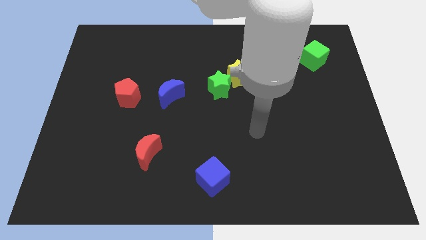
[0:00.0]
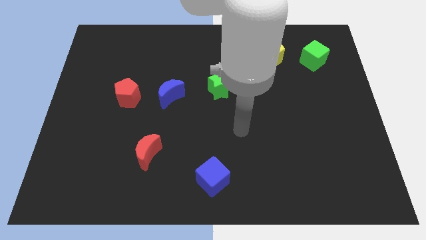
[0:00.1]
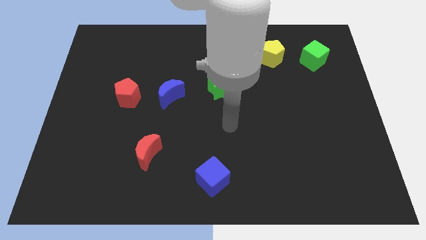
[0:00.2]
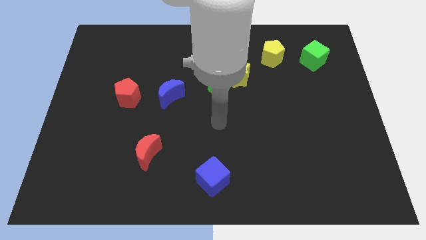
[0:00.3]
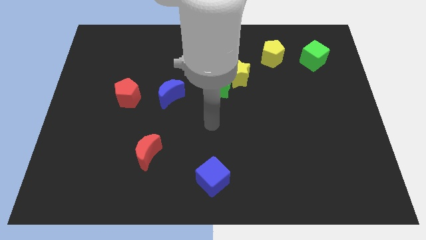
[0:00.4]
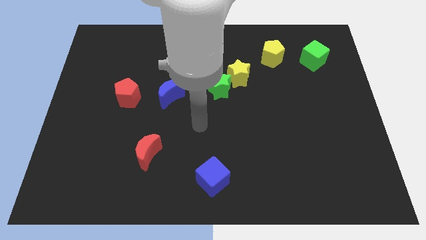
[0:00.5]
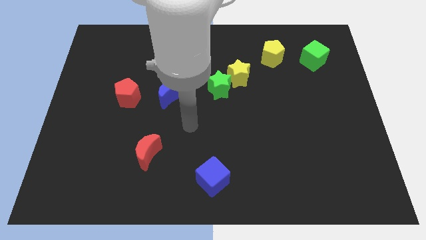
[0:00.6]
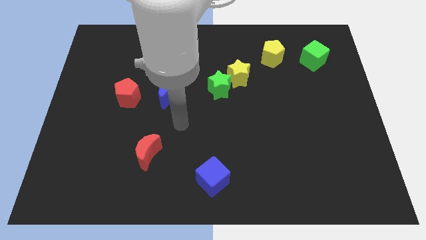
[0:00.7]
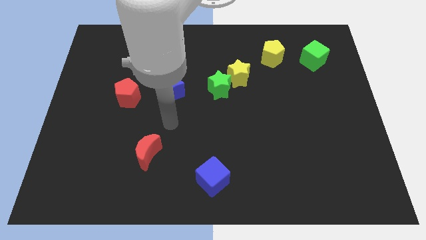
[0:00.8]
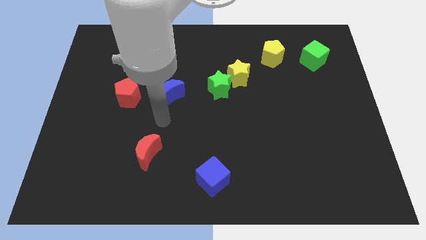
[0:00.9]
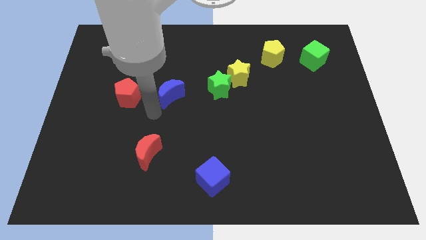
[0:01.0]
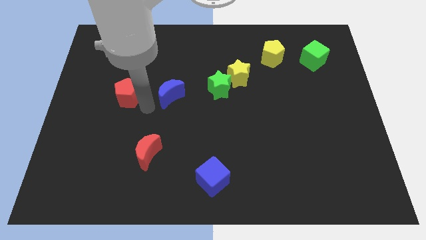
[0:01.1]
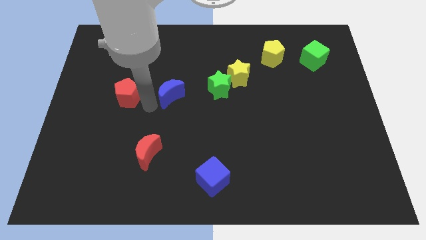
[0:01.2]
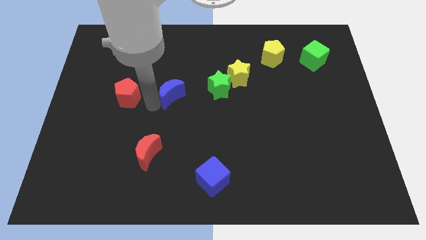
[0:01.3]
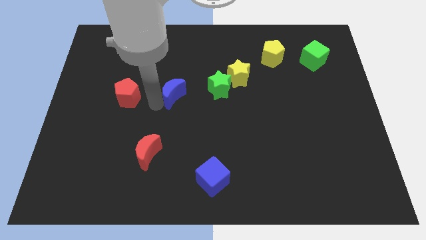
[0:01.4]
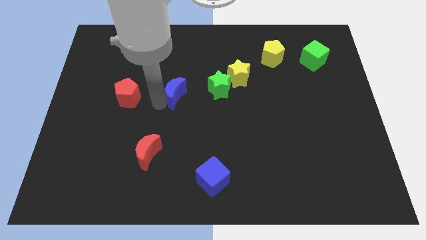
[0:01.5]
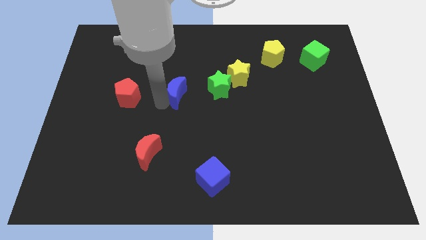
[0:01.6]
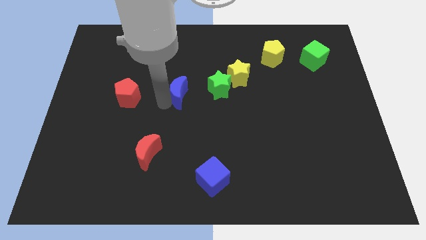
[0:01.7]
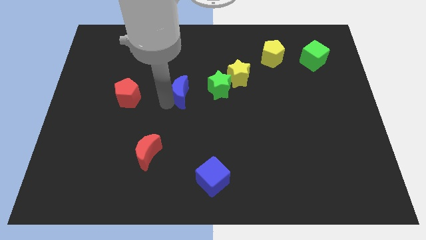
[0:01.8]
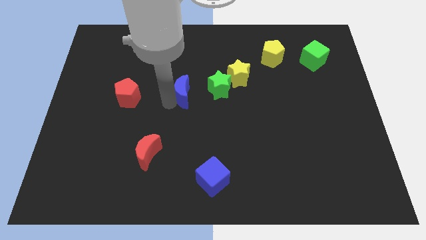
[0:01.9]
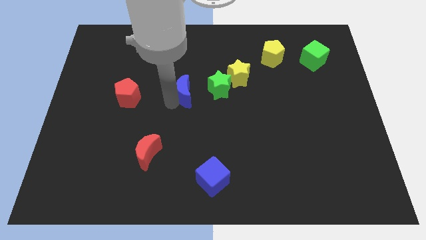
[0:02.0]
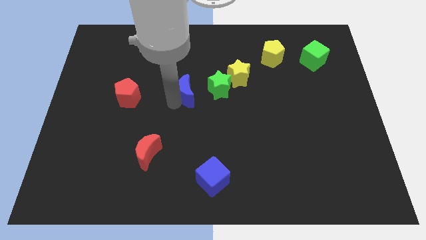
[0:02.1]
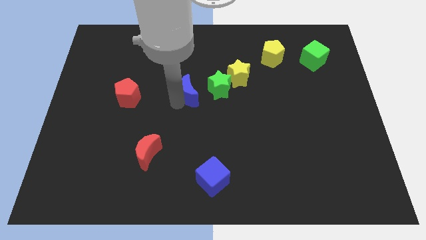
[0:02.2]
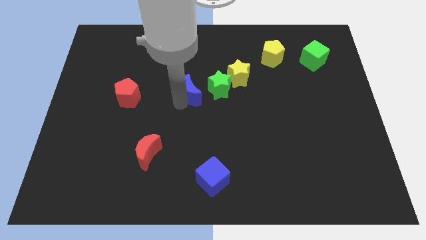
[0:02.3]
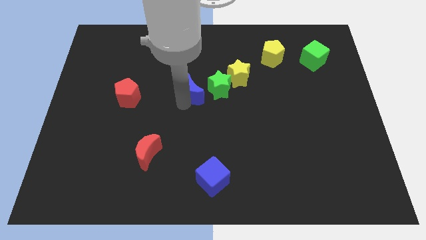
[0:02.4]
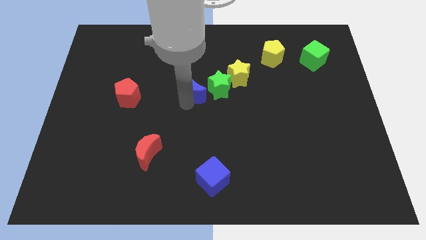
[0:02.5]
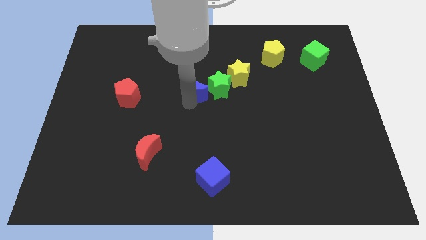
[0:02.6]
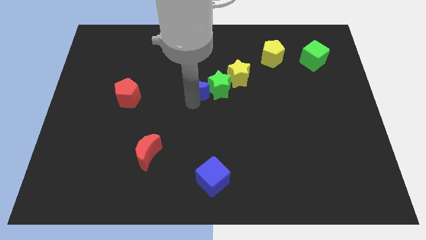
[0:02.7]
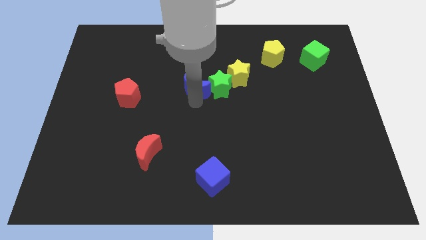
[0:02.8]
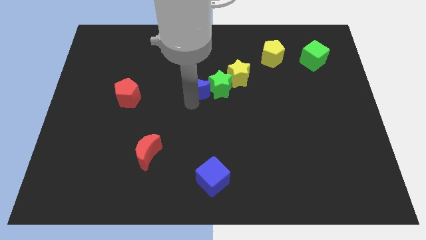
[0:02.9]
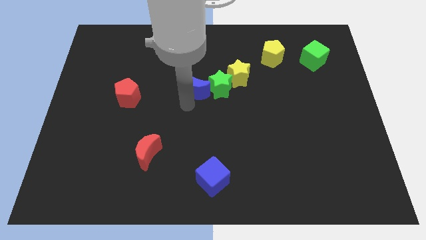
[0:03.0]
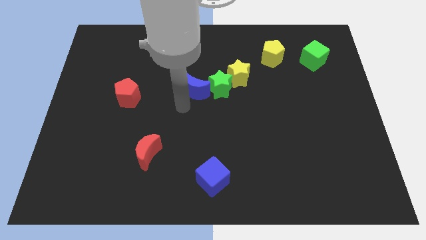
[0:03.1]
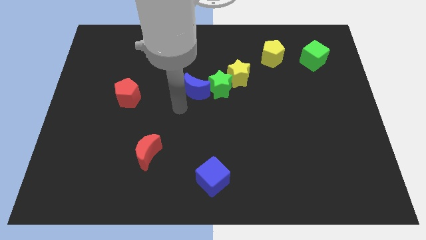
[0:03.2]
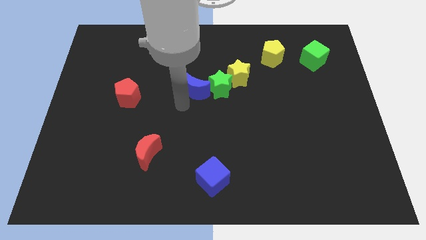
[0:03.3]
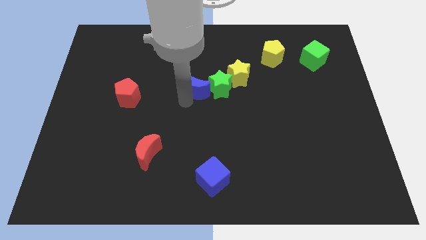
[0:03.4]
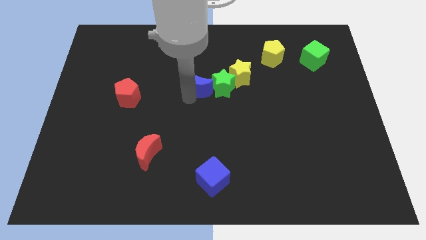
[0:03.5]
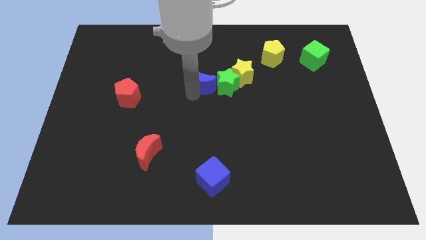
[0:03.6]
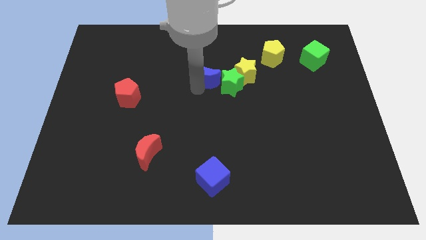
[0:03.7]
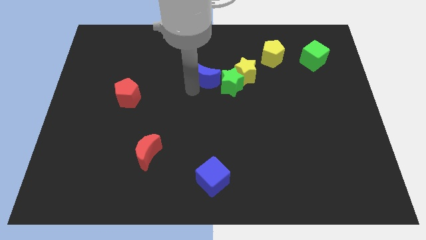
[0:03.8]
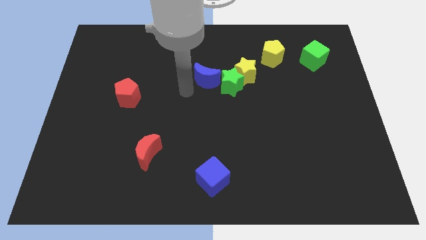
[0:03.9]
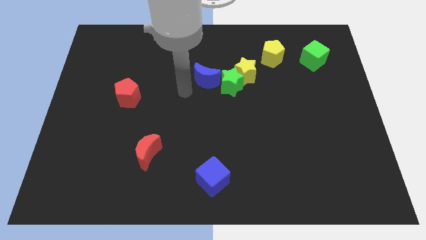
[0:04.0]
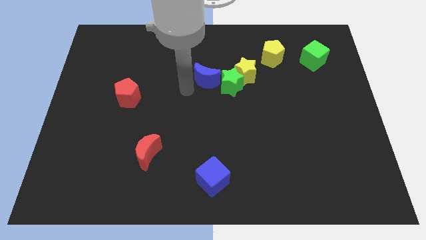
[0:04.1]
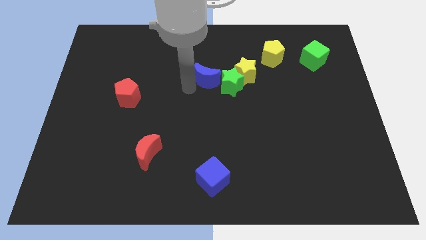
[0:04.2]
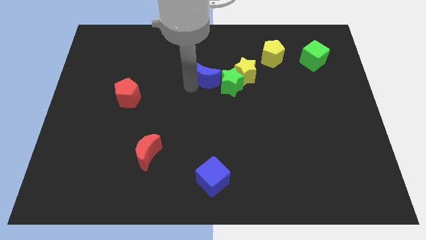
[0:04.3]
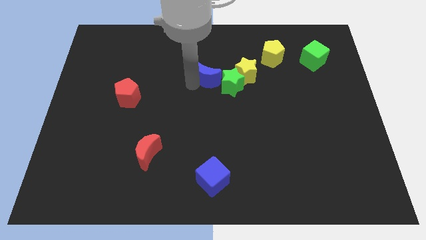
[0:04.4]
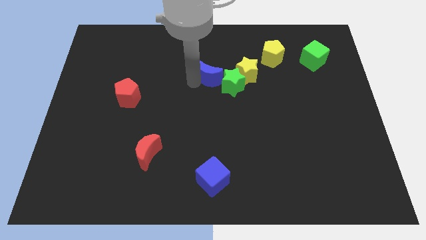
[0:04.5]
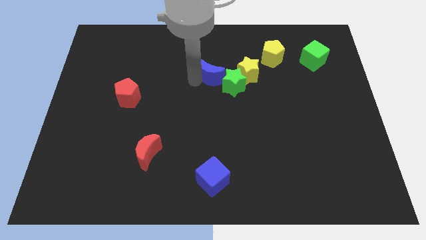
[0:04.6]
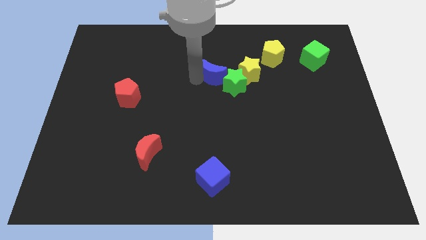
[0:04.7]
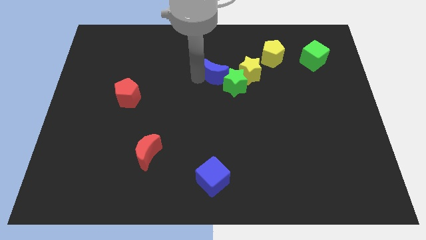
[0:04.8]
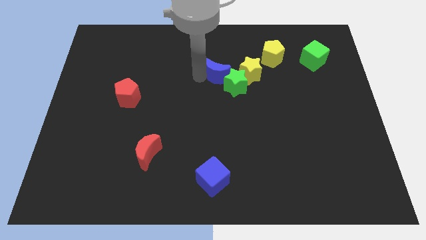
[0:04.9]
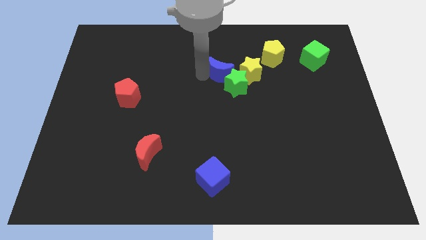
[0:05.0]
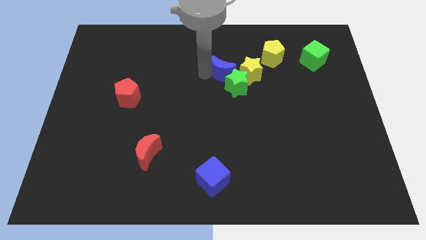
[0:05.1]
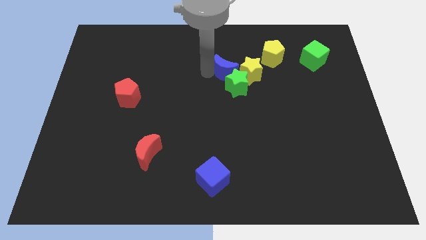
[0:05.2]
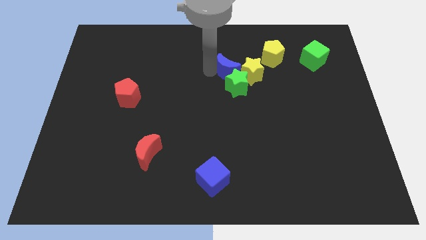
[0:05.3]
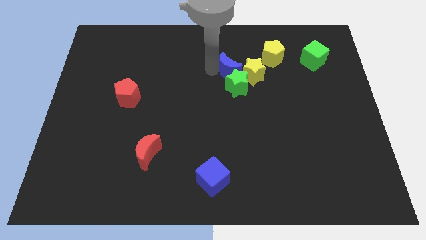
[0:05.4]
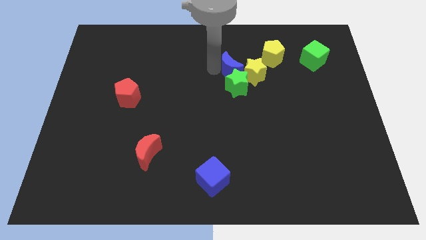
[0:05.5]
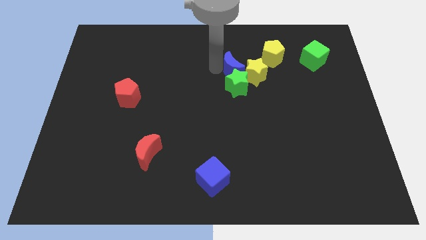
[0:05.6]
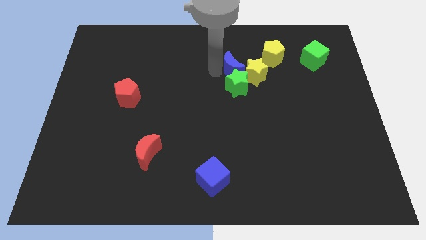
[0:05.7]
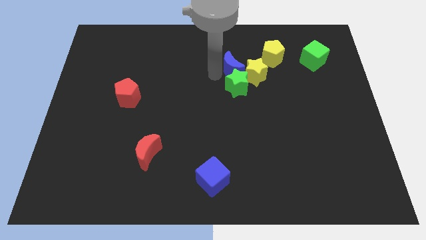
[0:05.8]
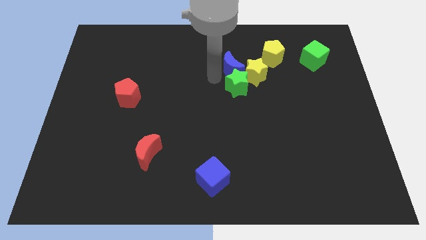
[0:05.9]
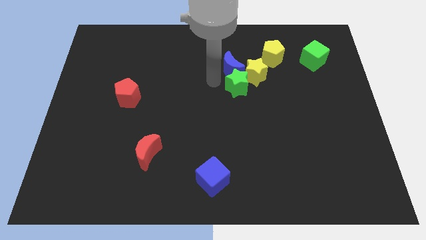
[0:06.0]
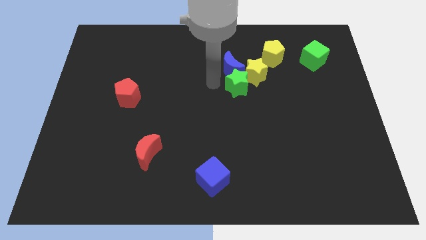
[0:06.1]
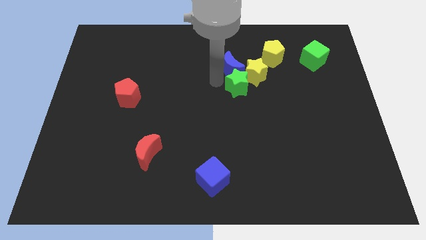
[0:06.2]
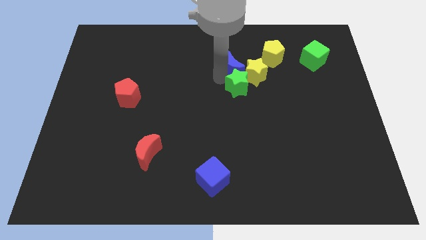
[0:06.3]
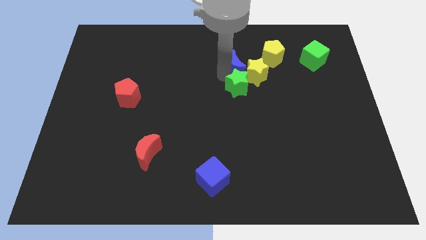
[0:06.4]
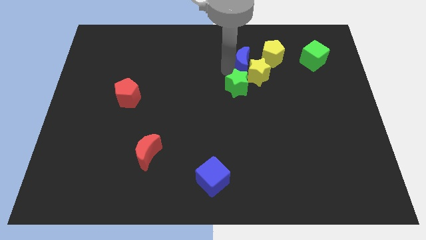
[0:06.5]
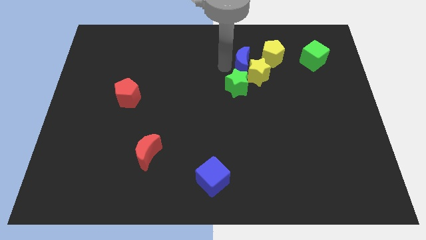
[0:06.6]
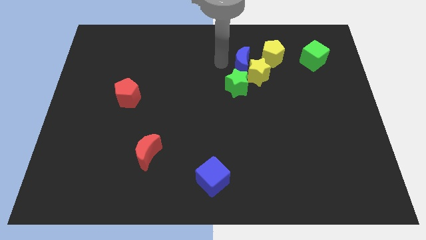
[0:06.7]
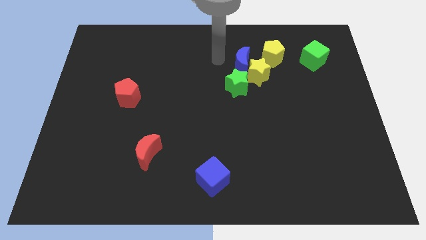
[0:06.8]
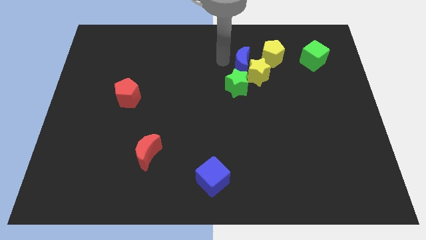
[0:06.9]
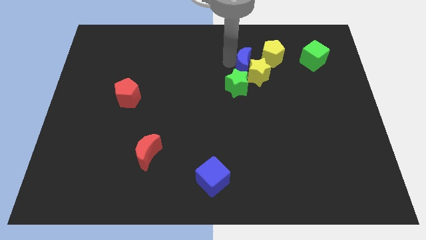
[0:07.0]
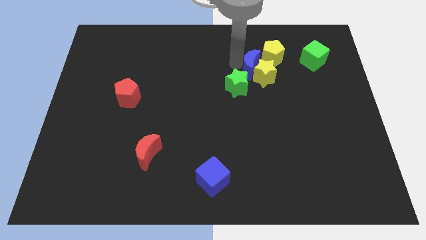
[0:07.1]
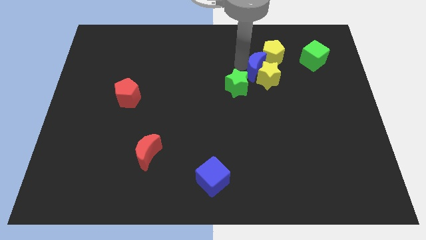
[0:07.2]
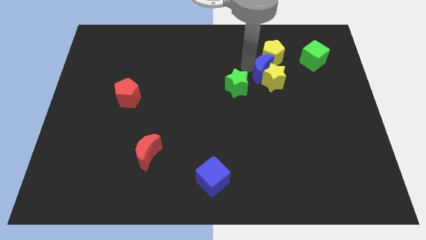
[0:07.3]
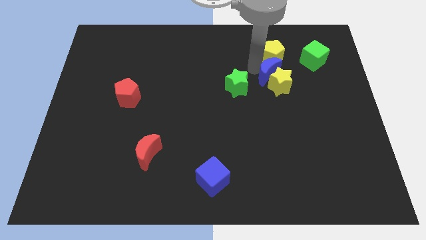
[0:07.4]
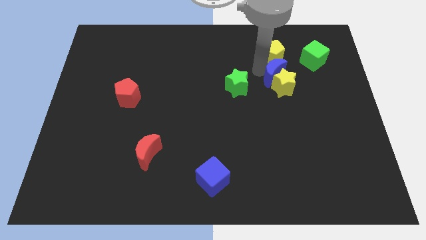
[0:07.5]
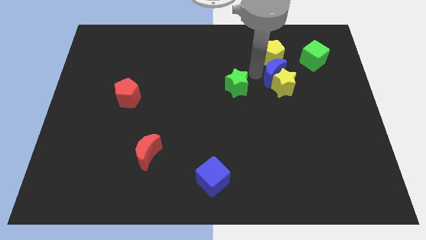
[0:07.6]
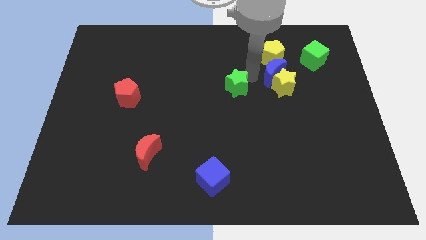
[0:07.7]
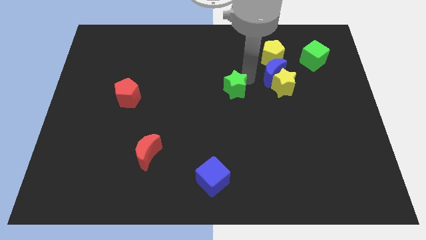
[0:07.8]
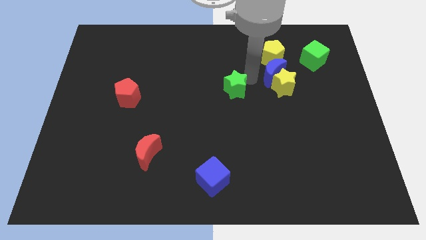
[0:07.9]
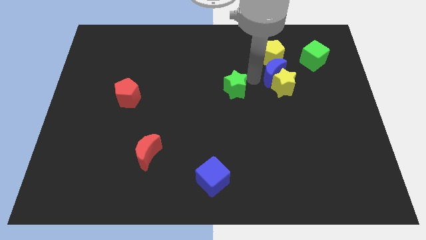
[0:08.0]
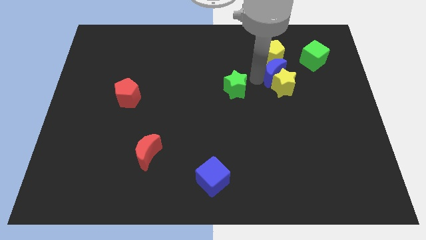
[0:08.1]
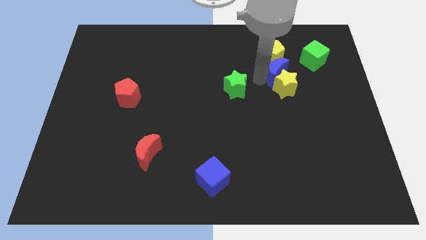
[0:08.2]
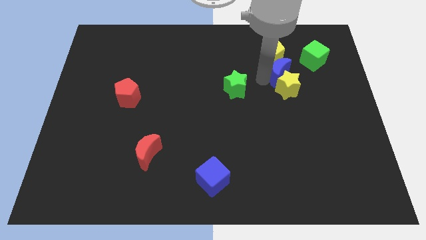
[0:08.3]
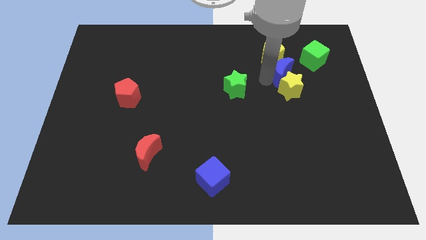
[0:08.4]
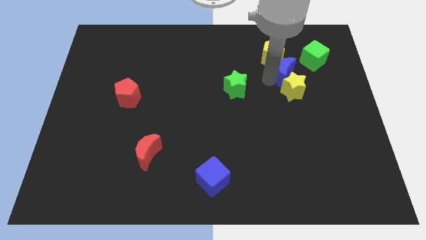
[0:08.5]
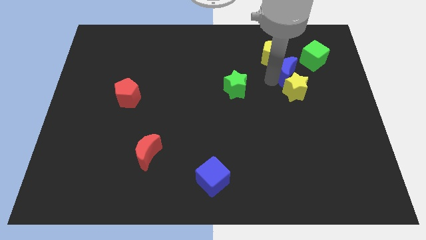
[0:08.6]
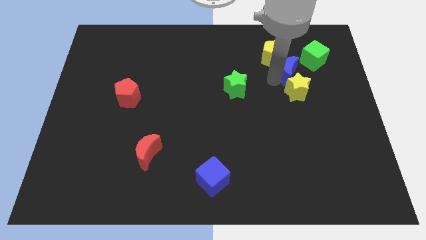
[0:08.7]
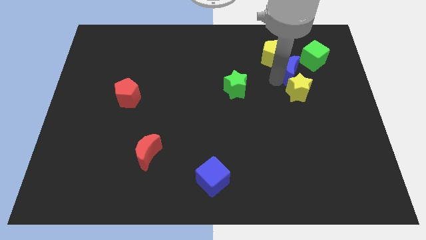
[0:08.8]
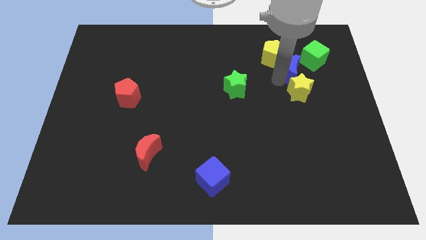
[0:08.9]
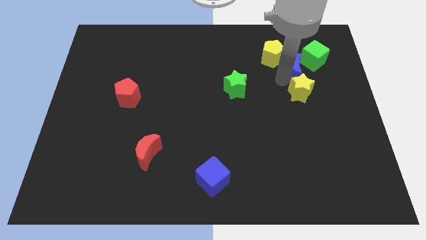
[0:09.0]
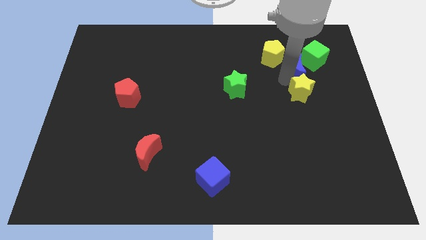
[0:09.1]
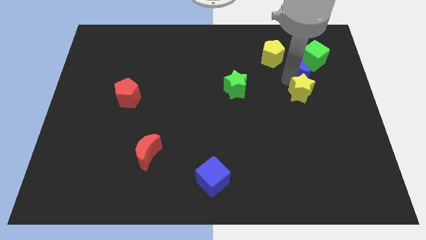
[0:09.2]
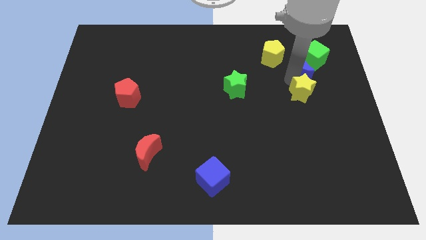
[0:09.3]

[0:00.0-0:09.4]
move the blue moon towards the green cube
